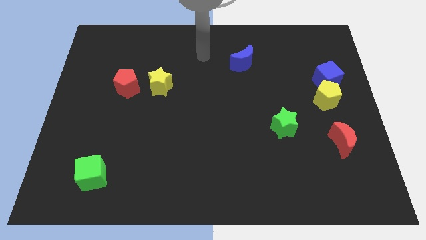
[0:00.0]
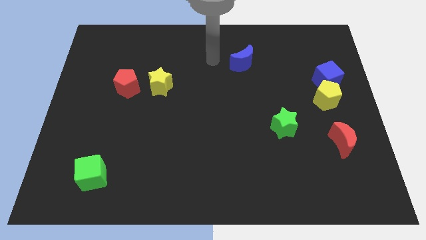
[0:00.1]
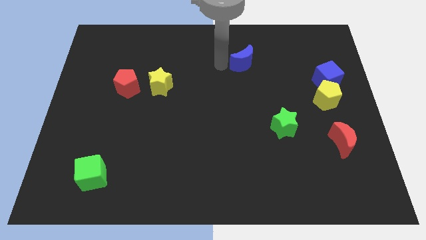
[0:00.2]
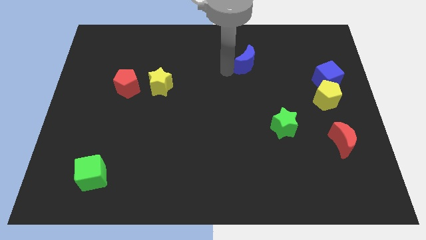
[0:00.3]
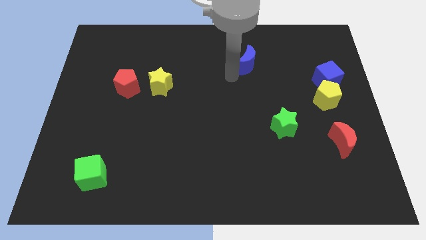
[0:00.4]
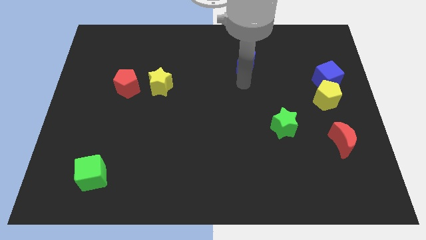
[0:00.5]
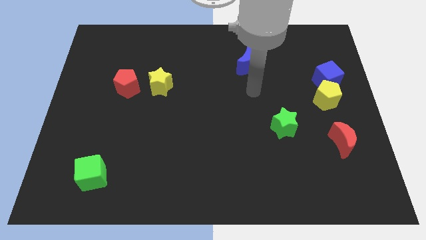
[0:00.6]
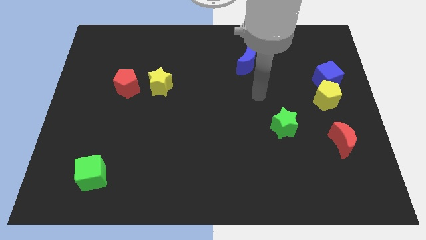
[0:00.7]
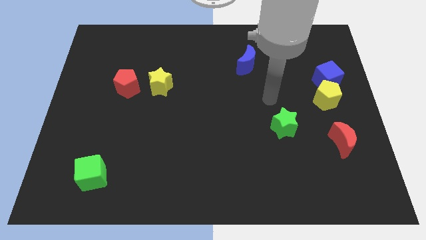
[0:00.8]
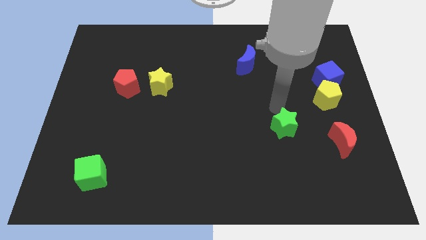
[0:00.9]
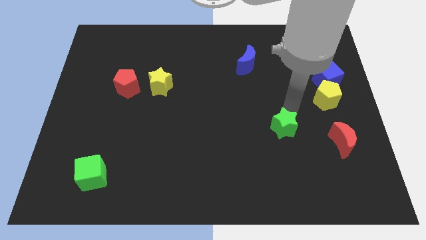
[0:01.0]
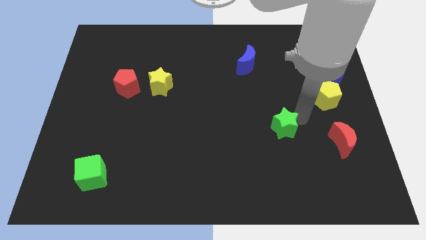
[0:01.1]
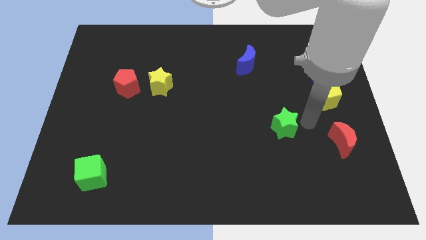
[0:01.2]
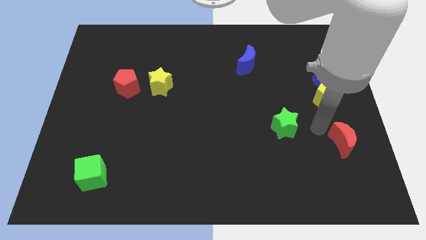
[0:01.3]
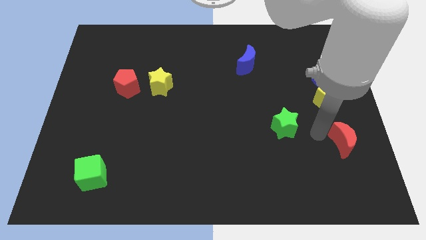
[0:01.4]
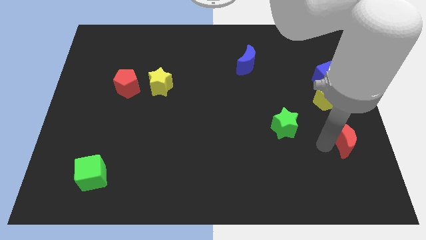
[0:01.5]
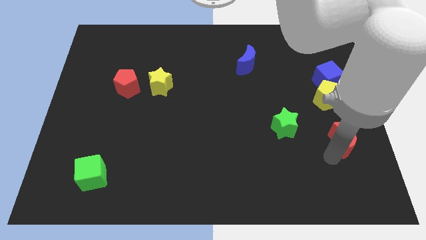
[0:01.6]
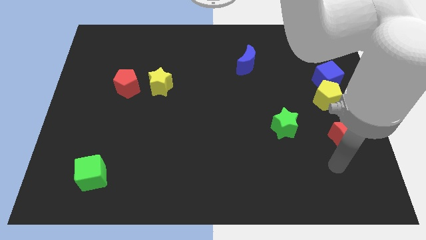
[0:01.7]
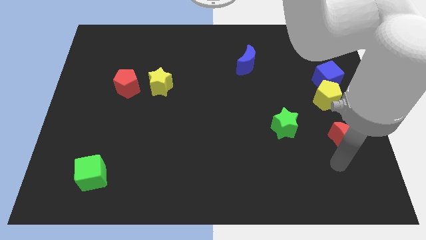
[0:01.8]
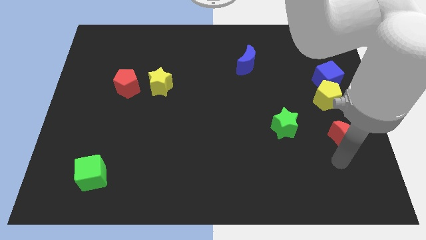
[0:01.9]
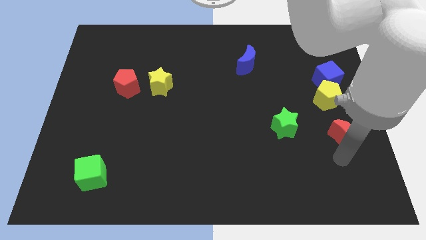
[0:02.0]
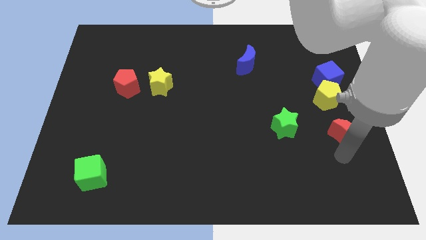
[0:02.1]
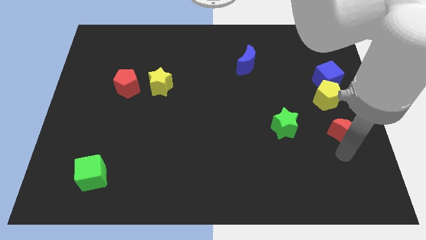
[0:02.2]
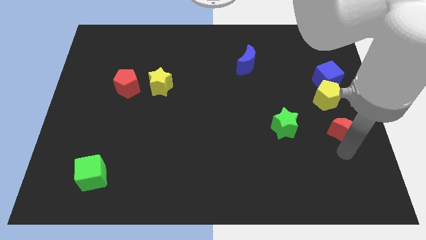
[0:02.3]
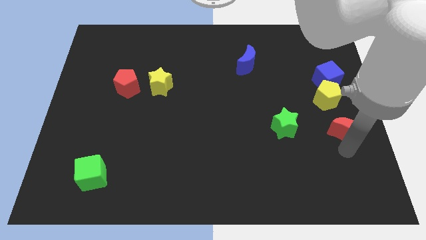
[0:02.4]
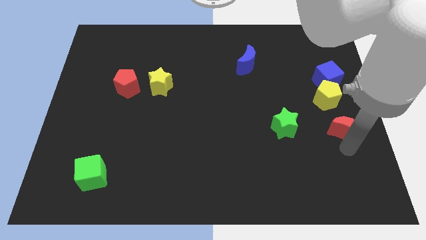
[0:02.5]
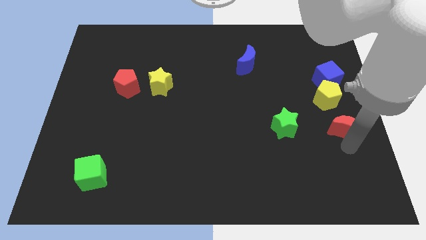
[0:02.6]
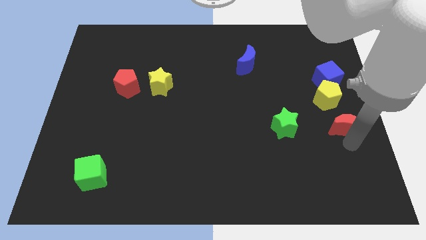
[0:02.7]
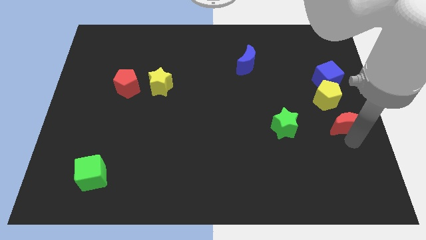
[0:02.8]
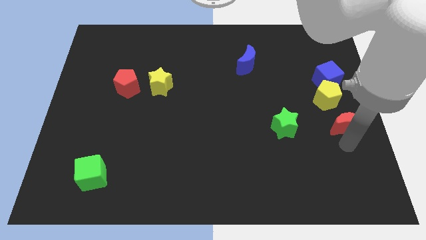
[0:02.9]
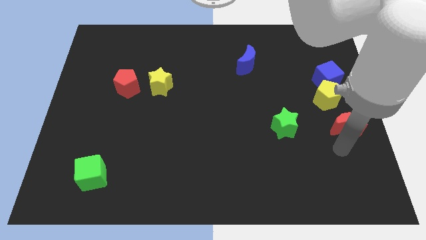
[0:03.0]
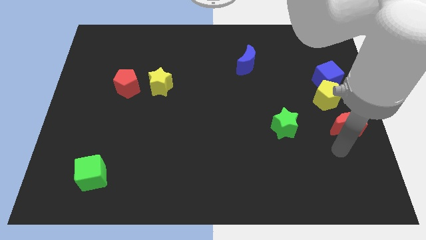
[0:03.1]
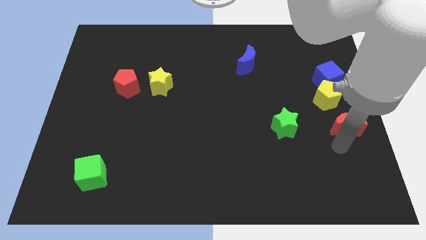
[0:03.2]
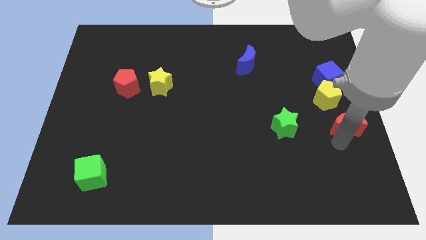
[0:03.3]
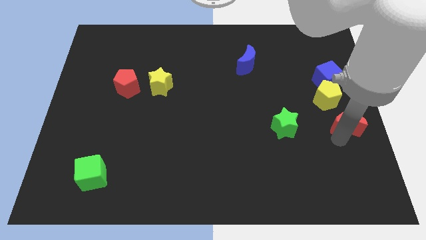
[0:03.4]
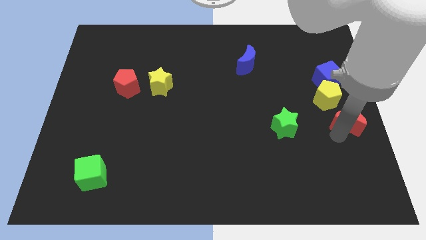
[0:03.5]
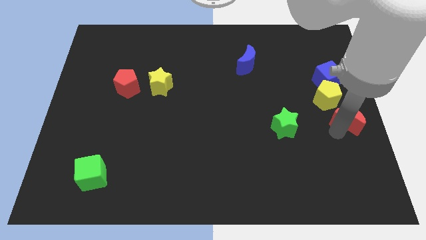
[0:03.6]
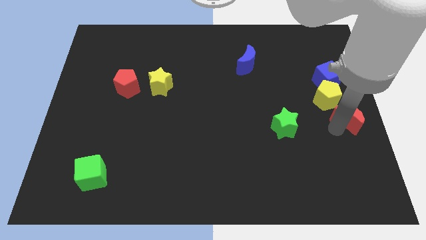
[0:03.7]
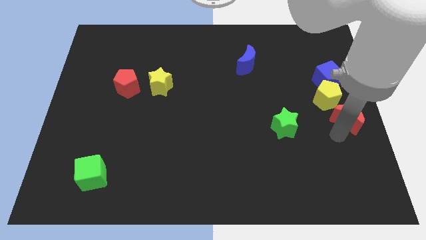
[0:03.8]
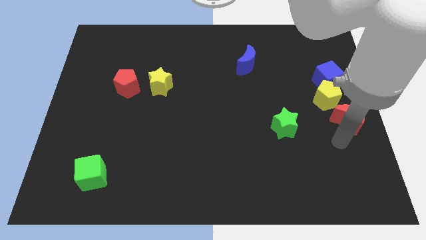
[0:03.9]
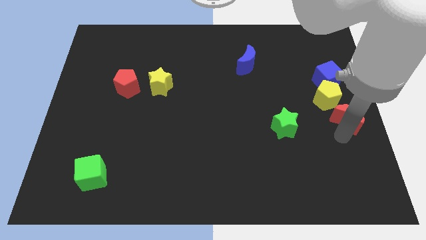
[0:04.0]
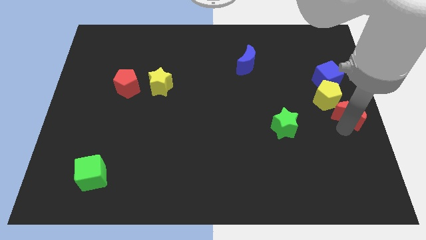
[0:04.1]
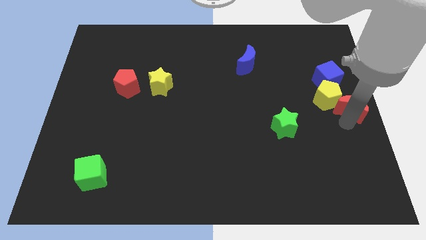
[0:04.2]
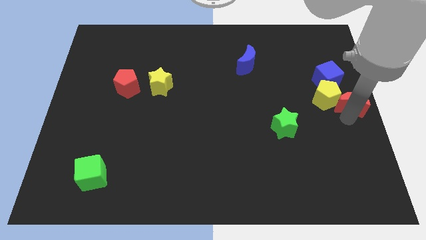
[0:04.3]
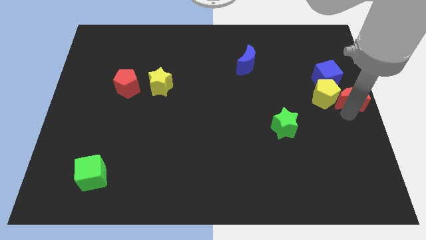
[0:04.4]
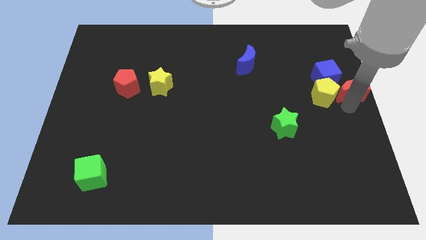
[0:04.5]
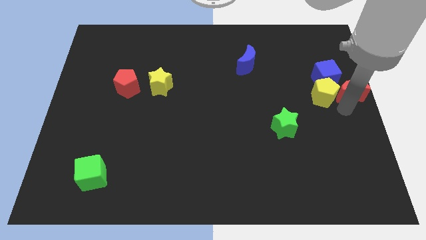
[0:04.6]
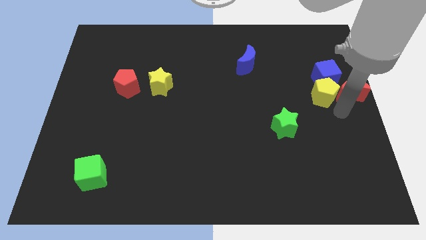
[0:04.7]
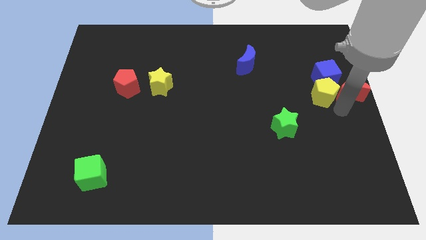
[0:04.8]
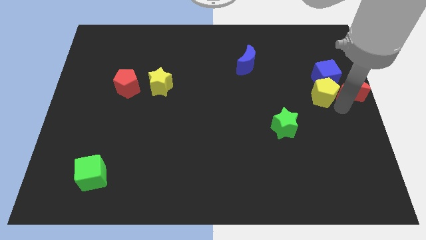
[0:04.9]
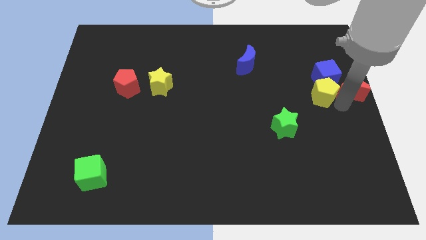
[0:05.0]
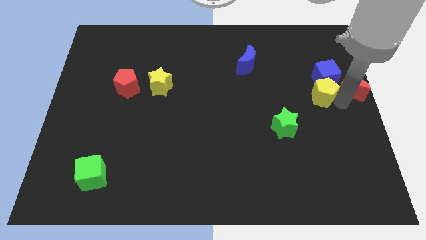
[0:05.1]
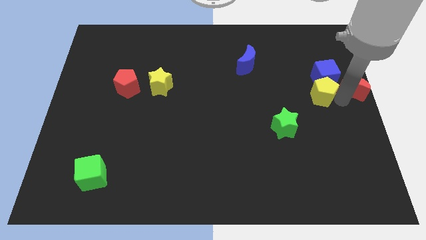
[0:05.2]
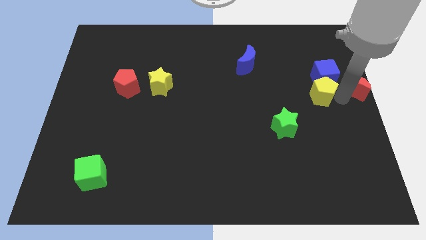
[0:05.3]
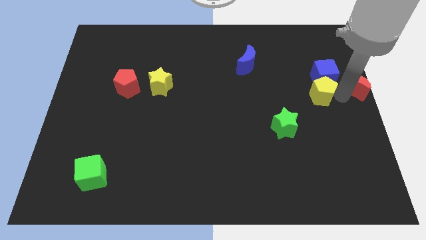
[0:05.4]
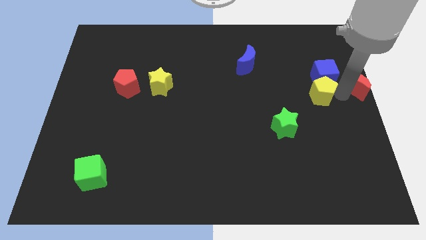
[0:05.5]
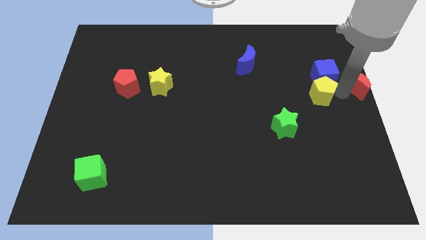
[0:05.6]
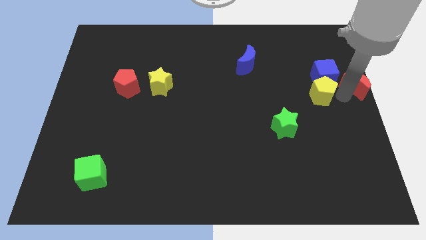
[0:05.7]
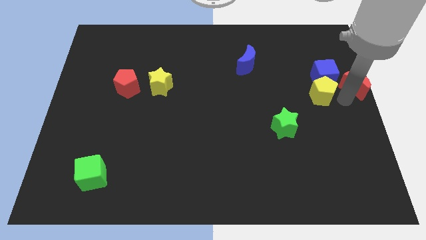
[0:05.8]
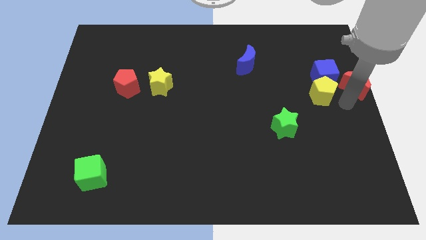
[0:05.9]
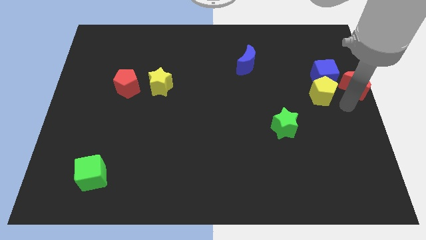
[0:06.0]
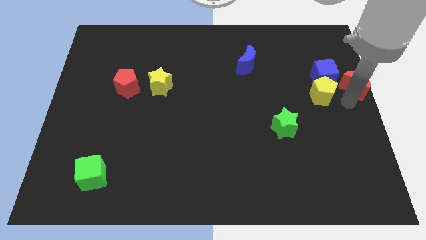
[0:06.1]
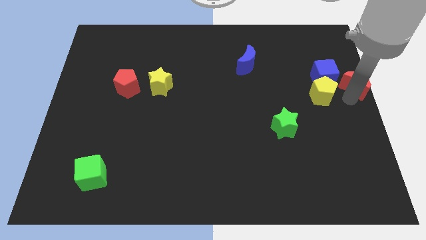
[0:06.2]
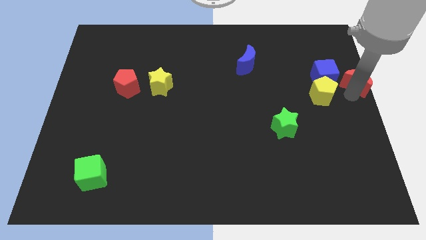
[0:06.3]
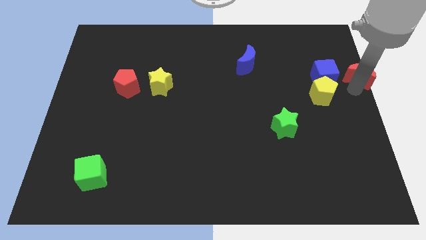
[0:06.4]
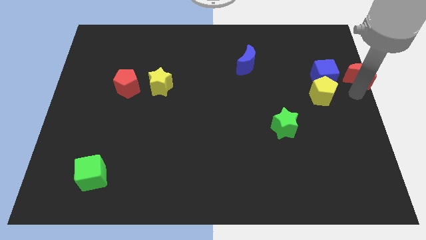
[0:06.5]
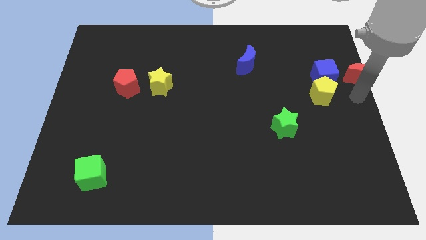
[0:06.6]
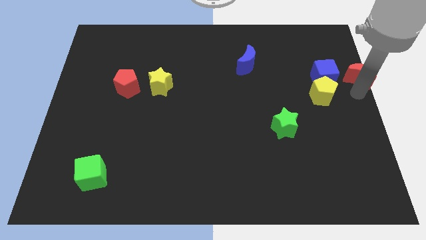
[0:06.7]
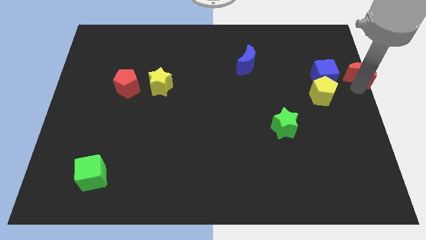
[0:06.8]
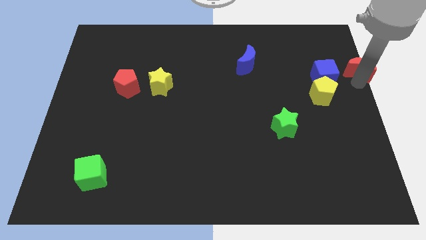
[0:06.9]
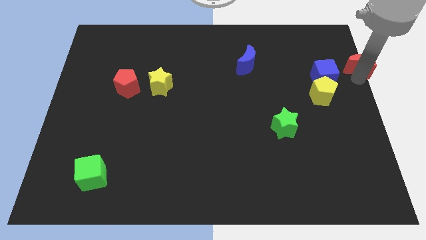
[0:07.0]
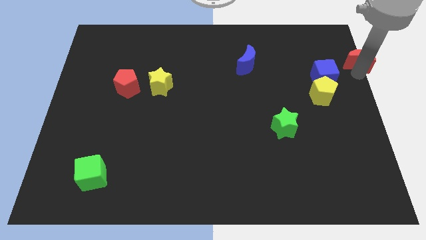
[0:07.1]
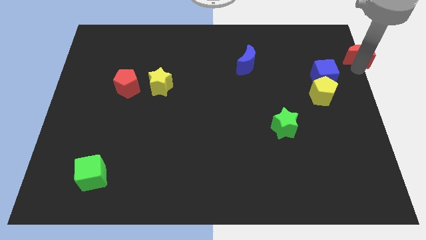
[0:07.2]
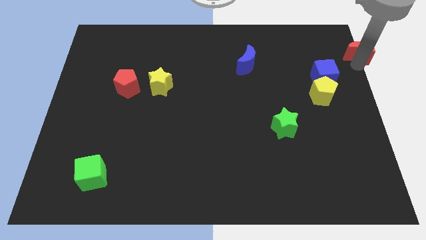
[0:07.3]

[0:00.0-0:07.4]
put the red moon to the top right of the board
